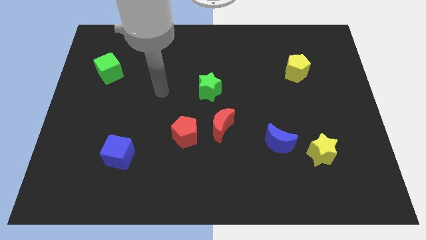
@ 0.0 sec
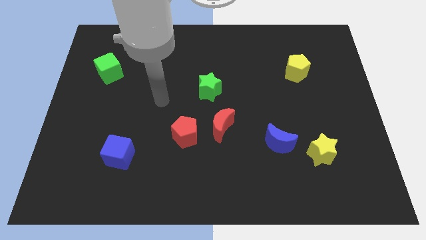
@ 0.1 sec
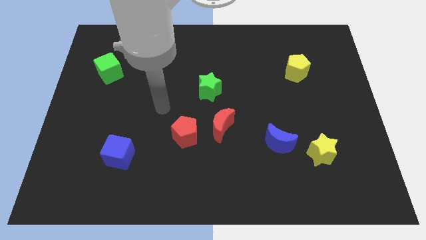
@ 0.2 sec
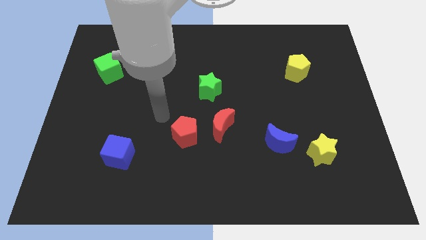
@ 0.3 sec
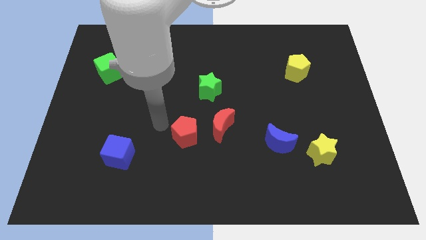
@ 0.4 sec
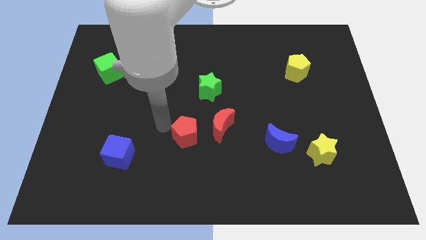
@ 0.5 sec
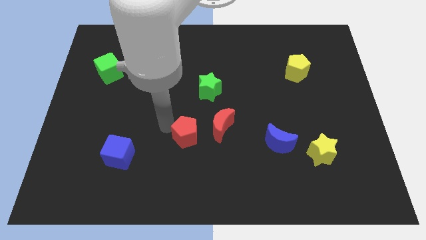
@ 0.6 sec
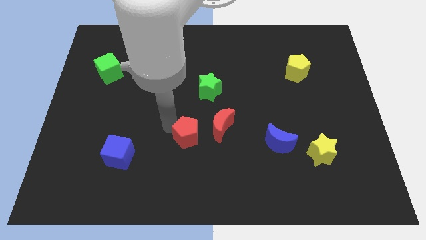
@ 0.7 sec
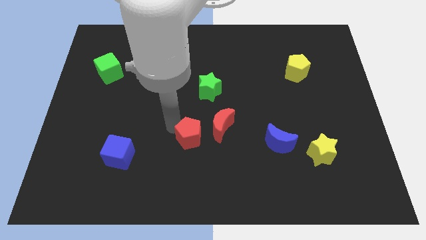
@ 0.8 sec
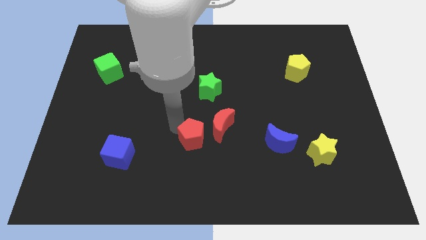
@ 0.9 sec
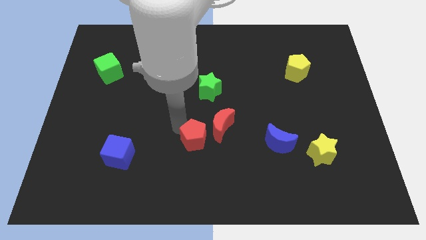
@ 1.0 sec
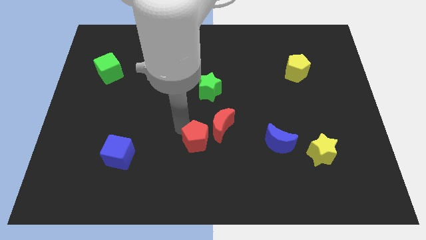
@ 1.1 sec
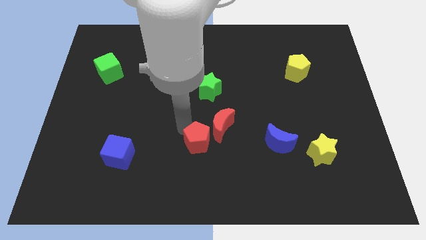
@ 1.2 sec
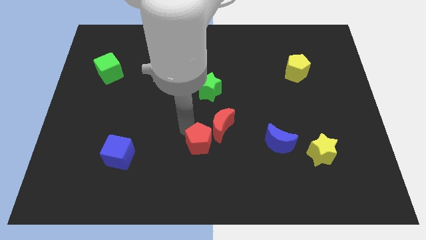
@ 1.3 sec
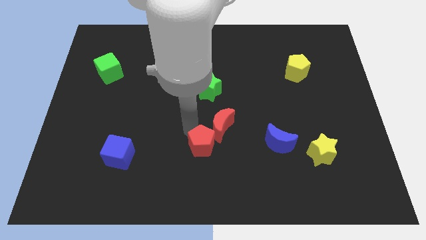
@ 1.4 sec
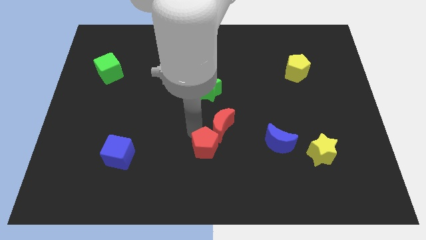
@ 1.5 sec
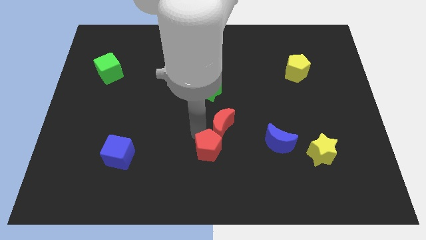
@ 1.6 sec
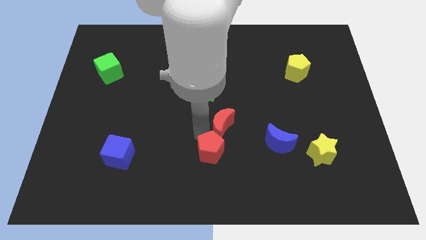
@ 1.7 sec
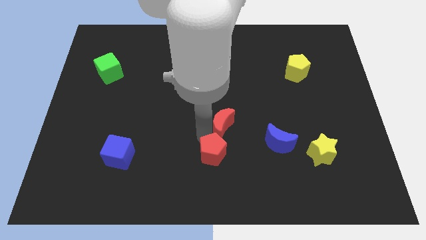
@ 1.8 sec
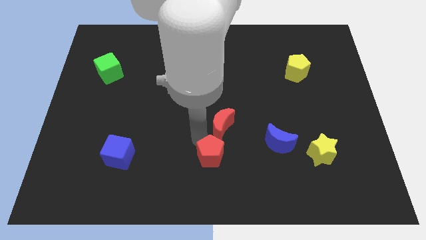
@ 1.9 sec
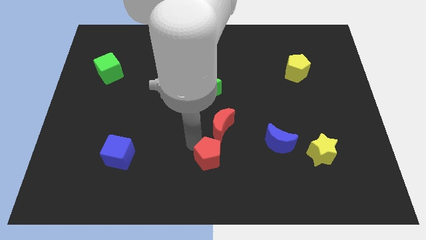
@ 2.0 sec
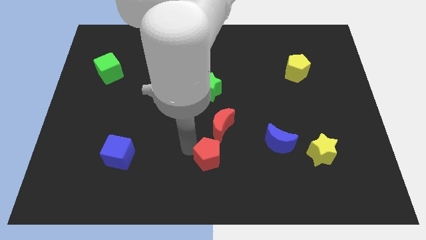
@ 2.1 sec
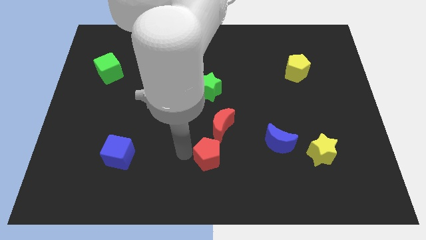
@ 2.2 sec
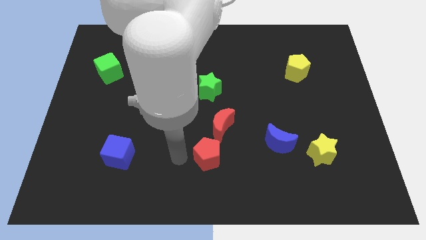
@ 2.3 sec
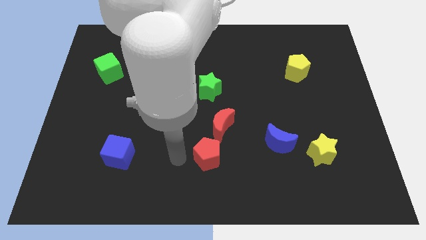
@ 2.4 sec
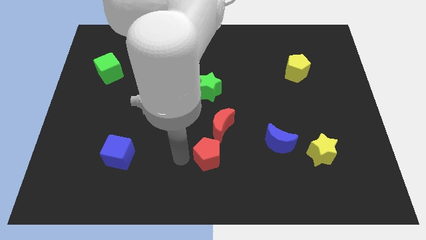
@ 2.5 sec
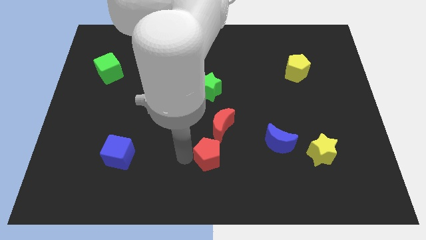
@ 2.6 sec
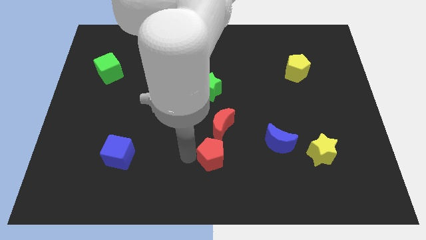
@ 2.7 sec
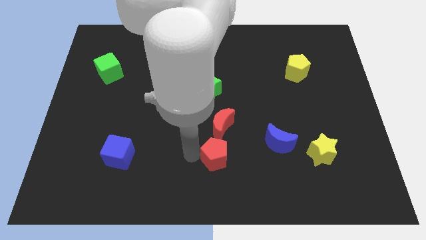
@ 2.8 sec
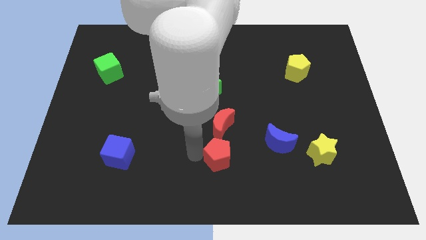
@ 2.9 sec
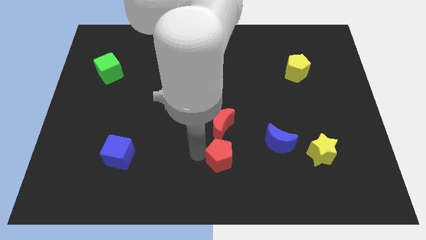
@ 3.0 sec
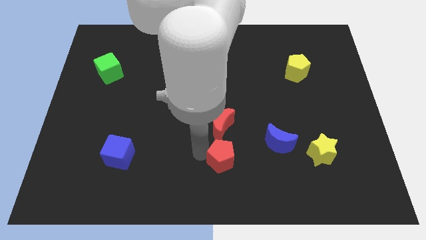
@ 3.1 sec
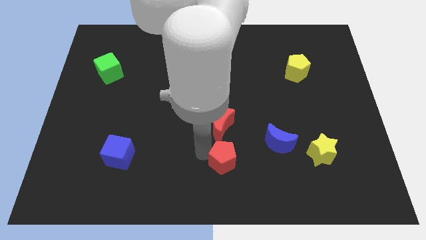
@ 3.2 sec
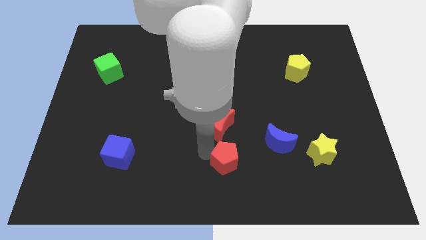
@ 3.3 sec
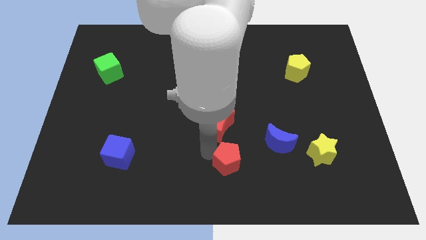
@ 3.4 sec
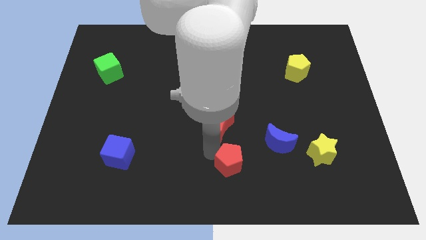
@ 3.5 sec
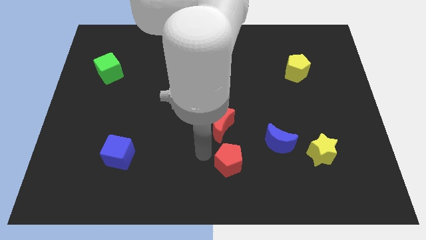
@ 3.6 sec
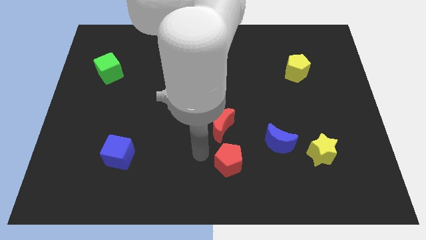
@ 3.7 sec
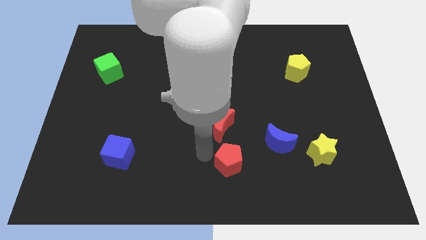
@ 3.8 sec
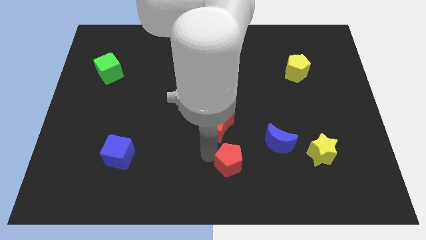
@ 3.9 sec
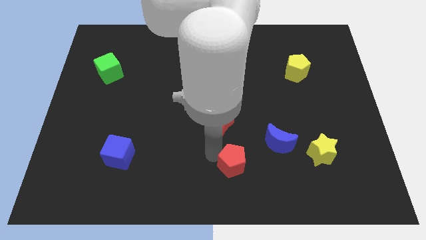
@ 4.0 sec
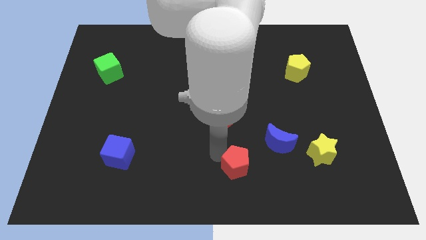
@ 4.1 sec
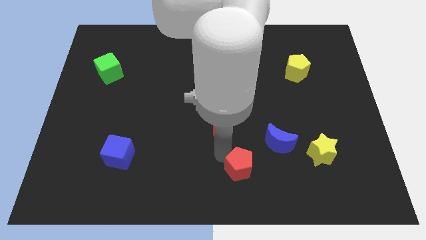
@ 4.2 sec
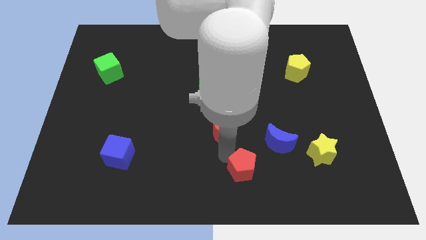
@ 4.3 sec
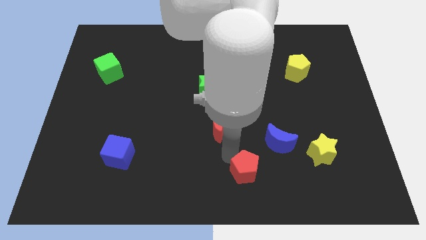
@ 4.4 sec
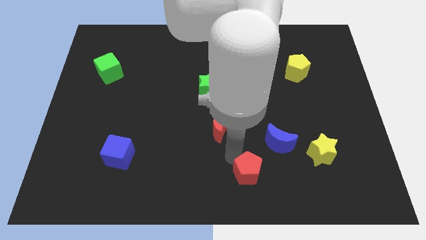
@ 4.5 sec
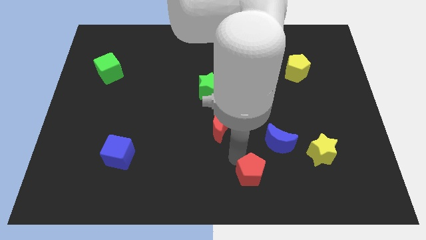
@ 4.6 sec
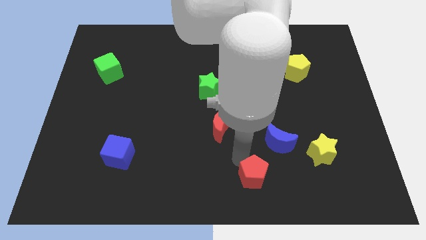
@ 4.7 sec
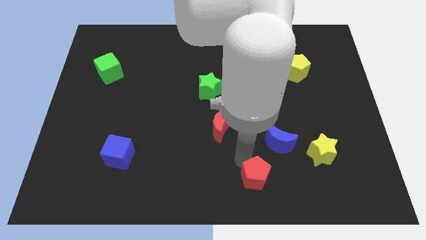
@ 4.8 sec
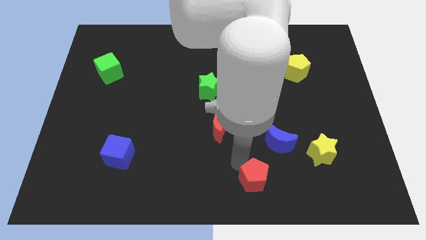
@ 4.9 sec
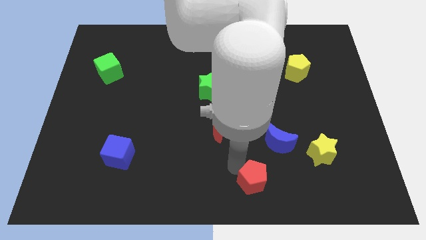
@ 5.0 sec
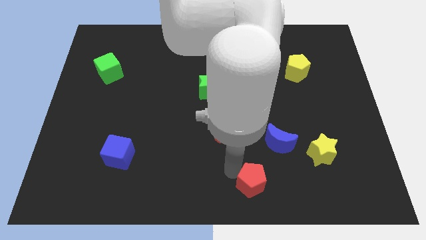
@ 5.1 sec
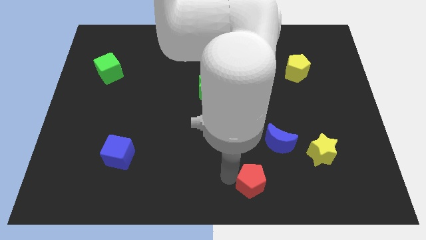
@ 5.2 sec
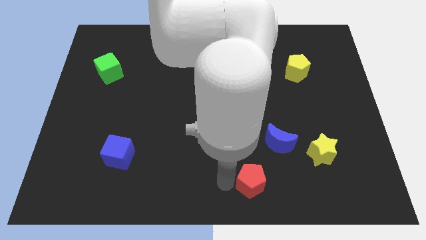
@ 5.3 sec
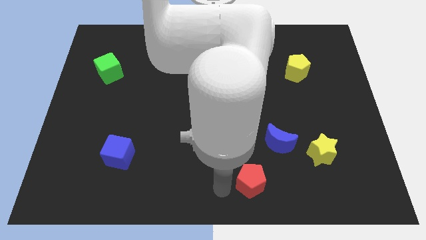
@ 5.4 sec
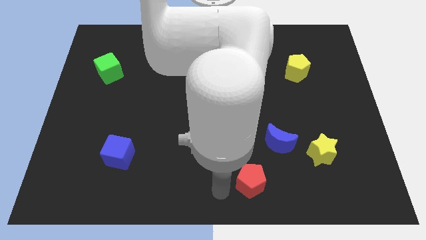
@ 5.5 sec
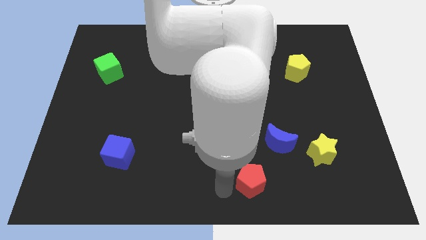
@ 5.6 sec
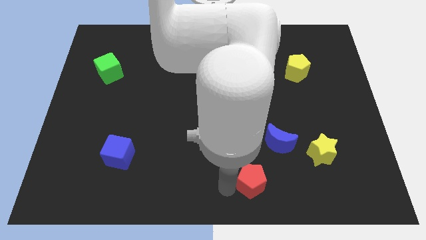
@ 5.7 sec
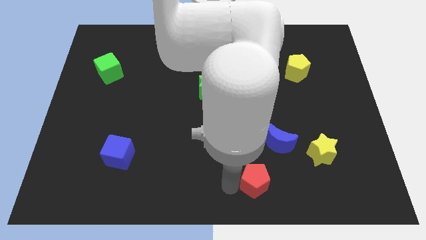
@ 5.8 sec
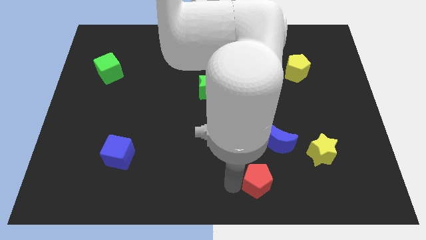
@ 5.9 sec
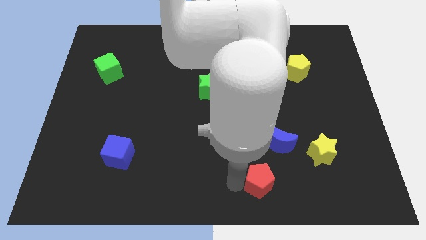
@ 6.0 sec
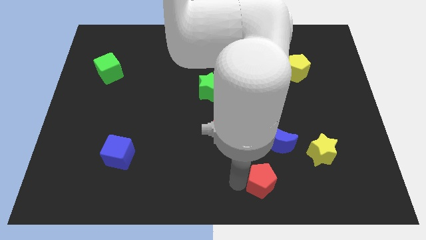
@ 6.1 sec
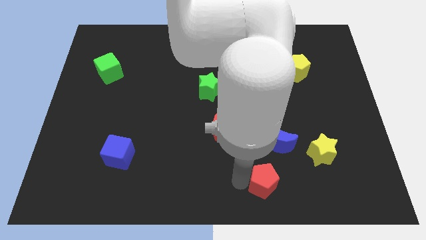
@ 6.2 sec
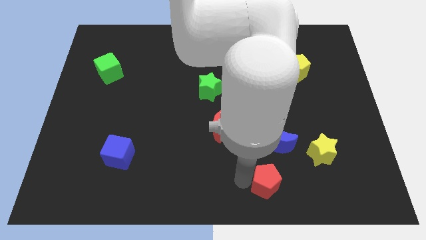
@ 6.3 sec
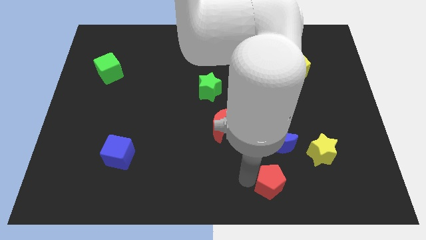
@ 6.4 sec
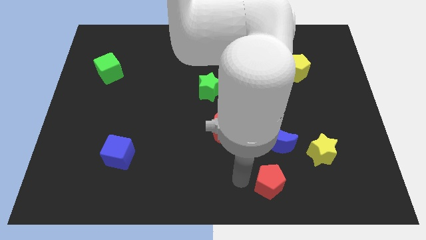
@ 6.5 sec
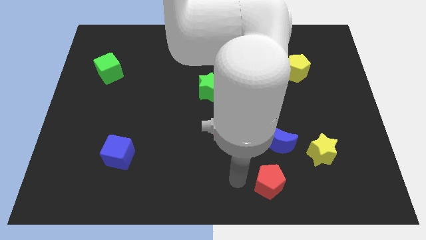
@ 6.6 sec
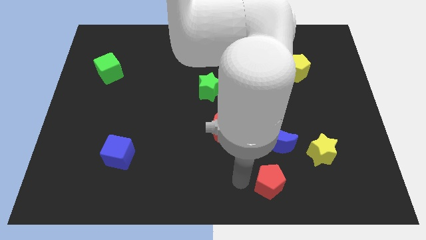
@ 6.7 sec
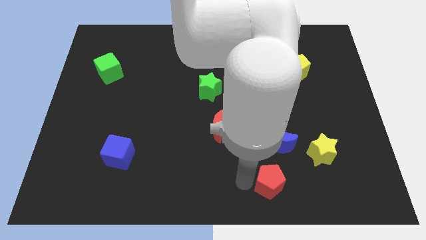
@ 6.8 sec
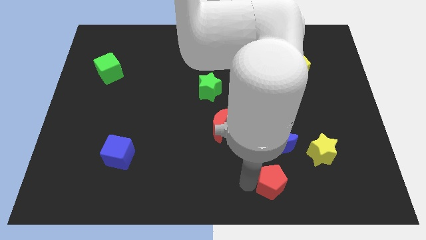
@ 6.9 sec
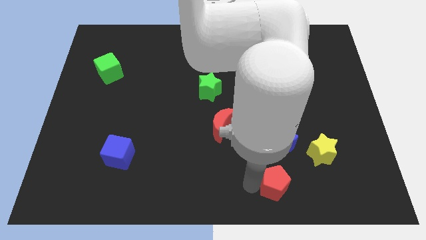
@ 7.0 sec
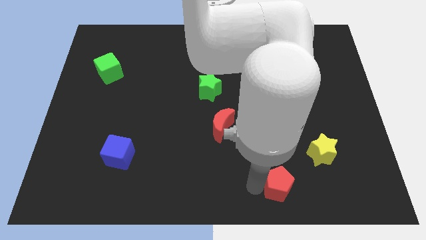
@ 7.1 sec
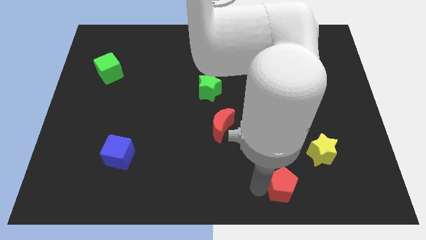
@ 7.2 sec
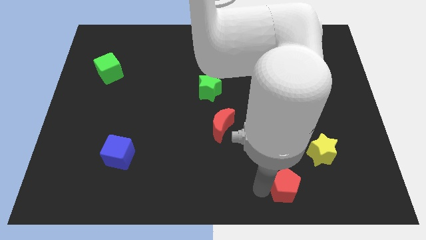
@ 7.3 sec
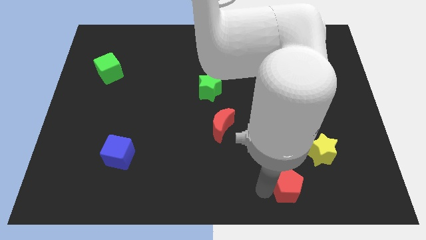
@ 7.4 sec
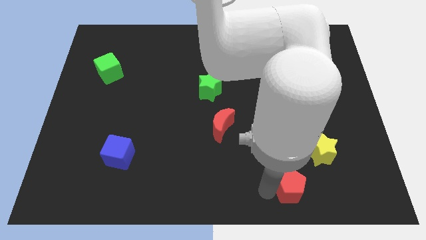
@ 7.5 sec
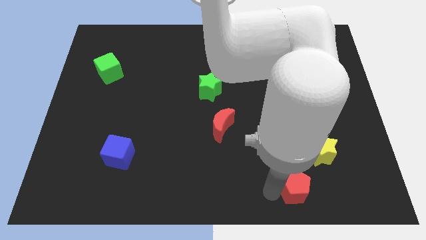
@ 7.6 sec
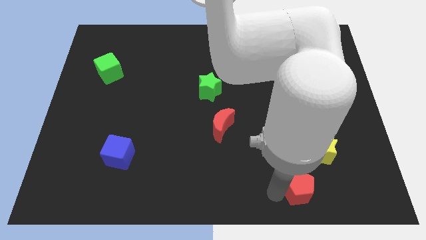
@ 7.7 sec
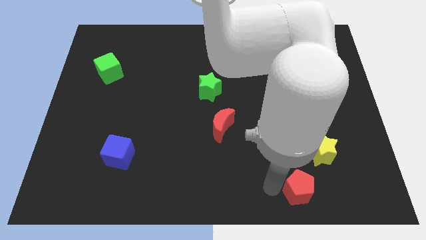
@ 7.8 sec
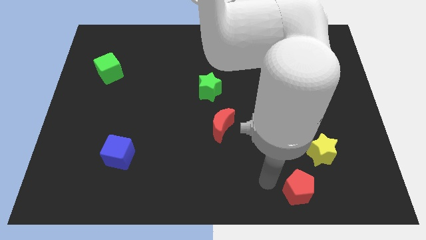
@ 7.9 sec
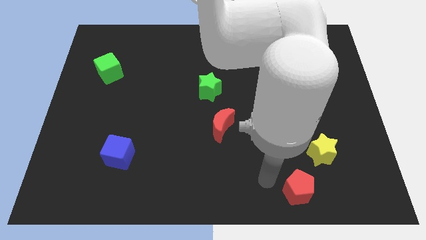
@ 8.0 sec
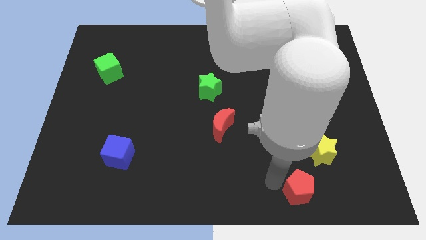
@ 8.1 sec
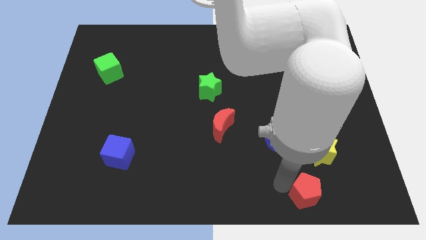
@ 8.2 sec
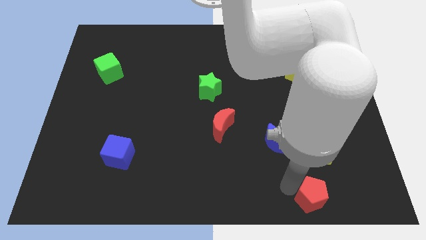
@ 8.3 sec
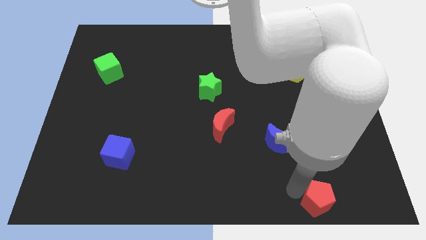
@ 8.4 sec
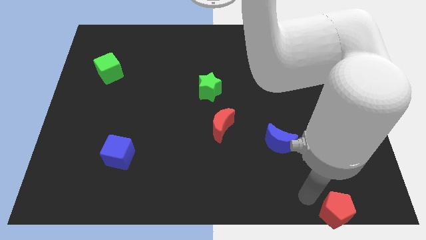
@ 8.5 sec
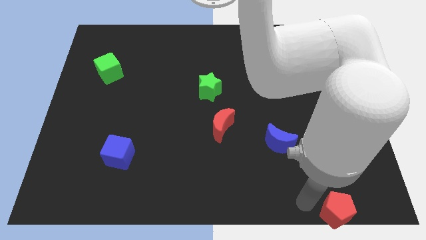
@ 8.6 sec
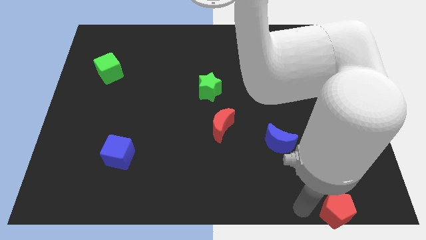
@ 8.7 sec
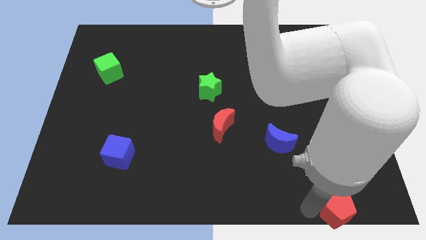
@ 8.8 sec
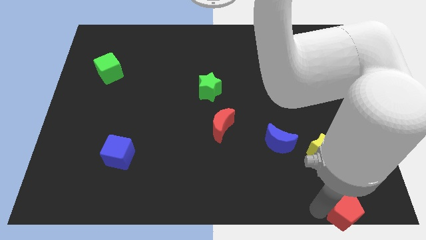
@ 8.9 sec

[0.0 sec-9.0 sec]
push the red pentagon to the bottom right
